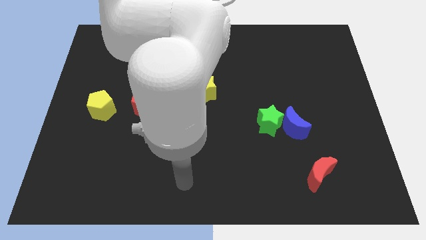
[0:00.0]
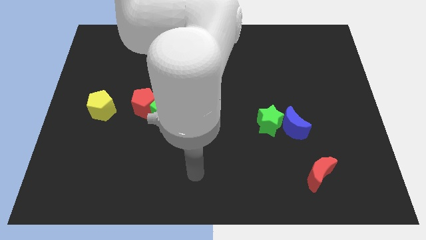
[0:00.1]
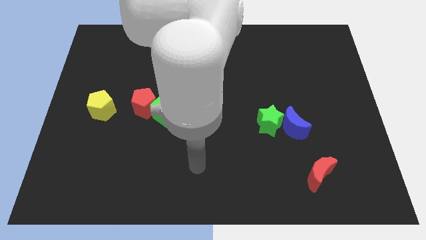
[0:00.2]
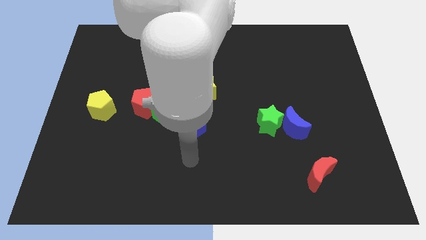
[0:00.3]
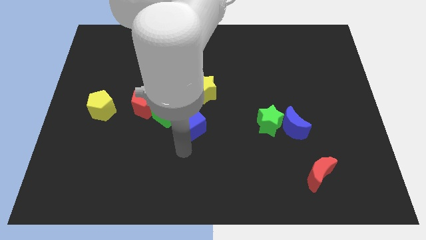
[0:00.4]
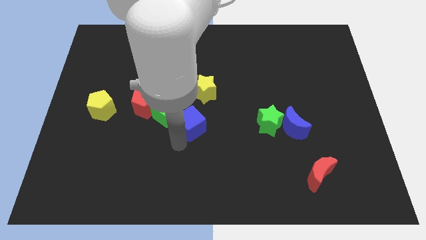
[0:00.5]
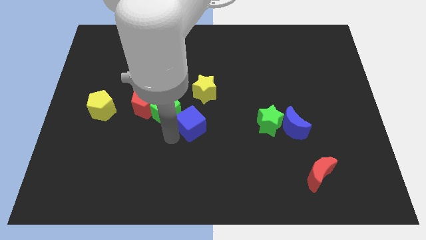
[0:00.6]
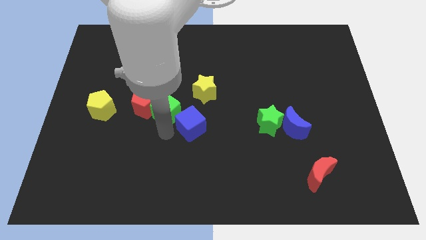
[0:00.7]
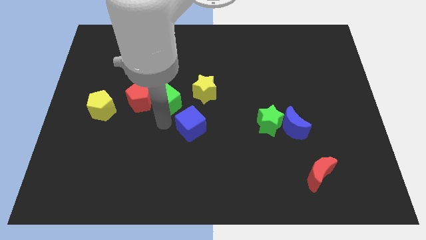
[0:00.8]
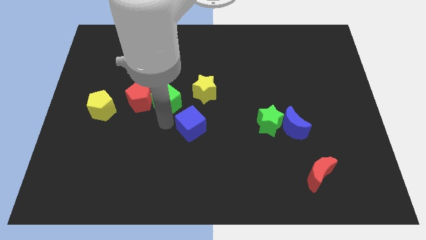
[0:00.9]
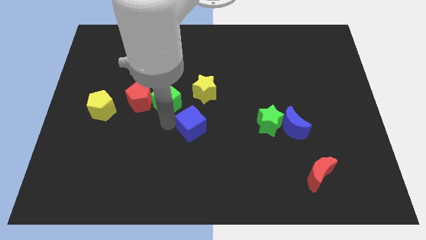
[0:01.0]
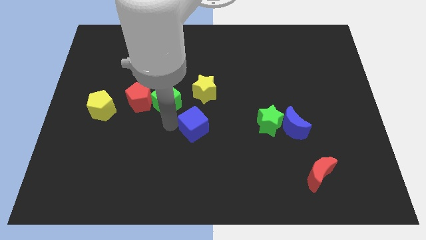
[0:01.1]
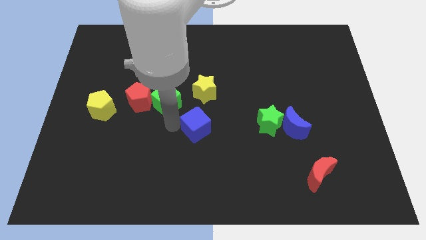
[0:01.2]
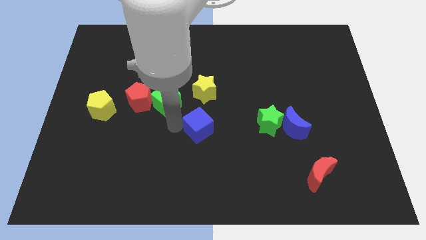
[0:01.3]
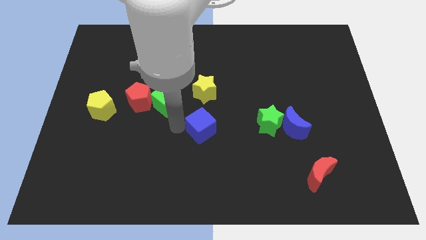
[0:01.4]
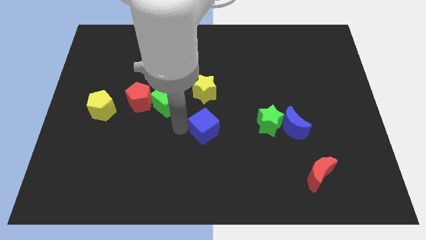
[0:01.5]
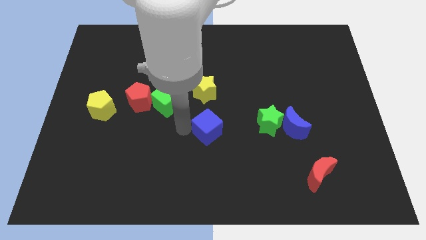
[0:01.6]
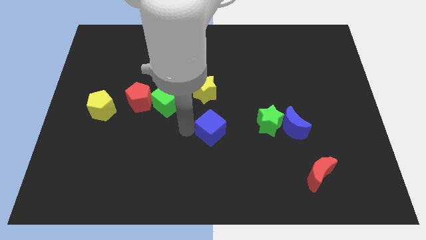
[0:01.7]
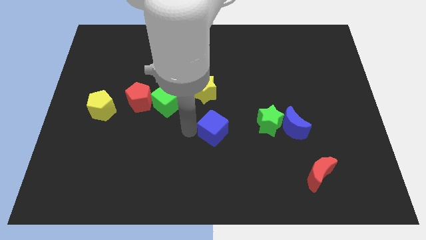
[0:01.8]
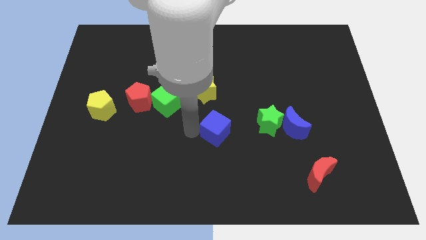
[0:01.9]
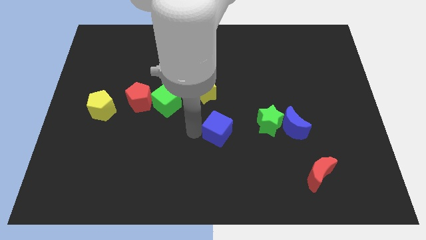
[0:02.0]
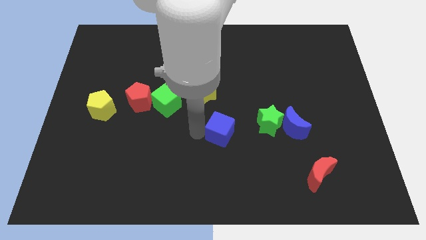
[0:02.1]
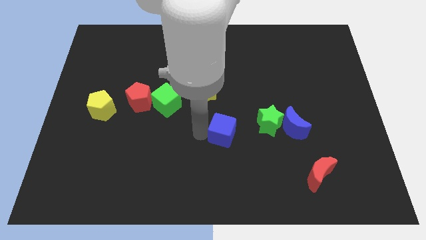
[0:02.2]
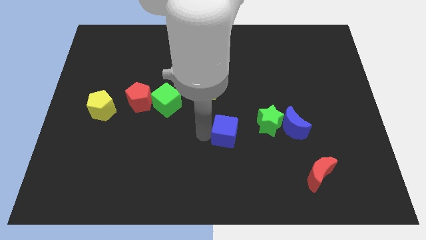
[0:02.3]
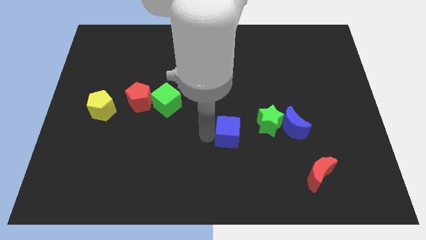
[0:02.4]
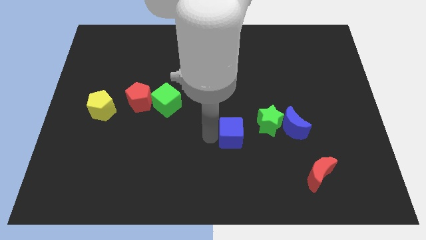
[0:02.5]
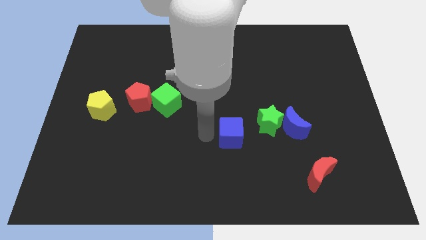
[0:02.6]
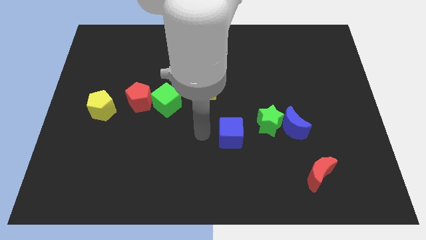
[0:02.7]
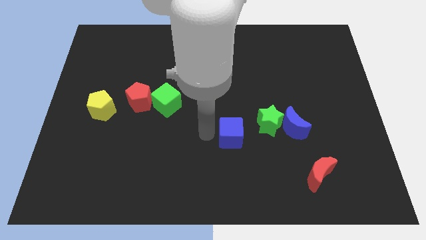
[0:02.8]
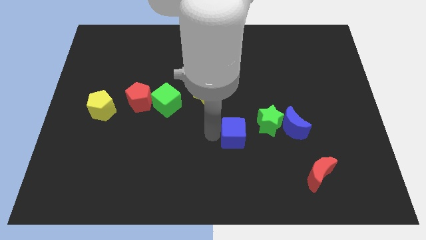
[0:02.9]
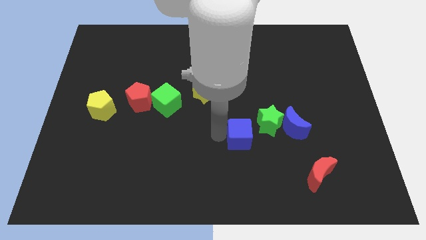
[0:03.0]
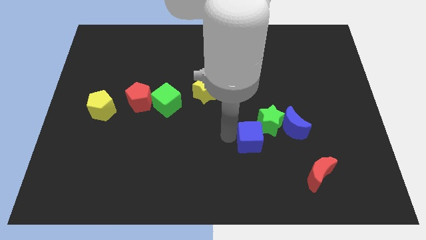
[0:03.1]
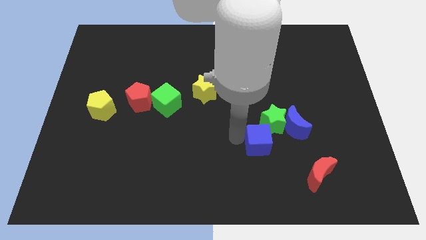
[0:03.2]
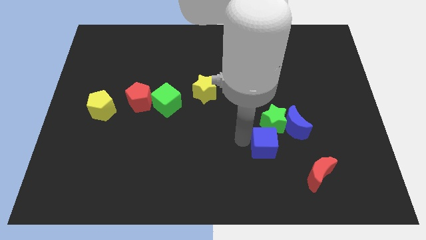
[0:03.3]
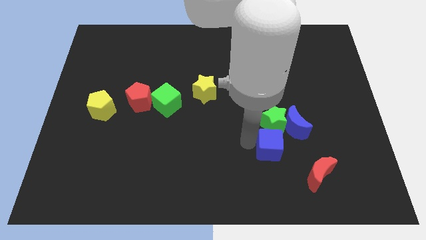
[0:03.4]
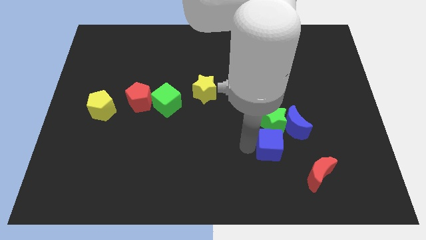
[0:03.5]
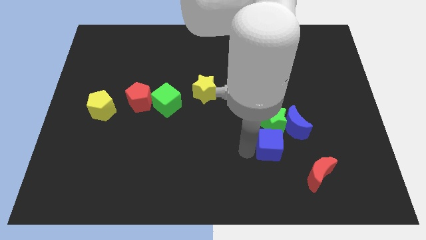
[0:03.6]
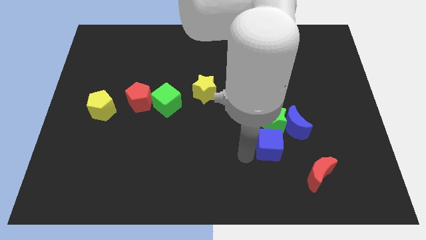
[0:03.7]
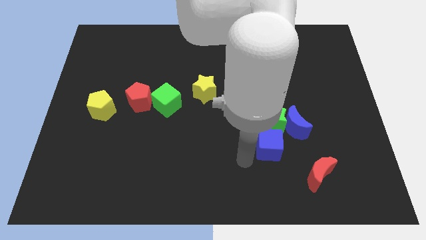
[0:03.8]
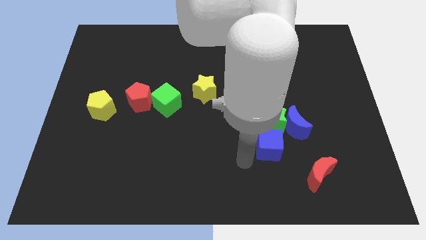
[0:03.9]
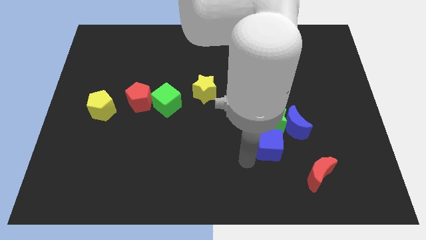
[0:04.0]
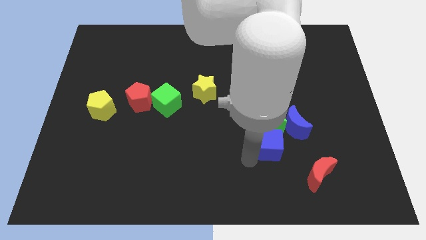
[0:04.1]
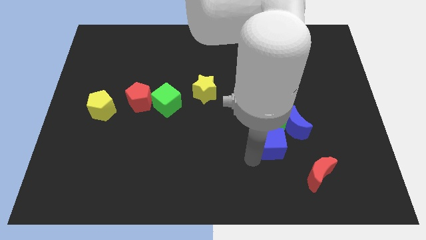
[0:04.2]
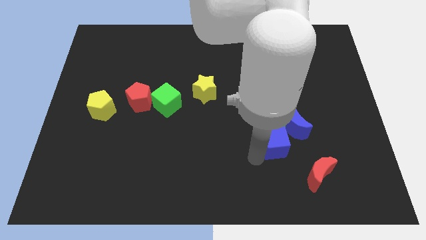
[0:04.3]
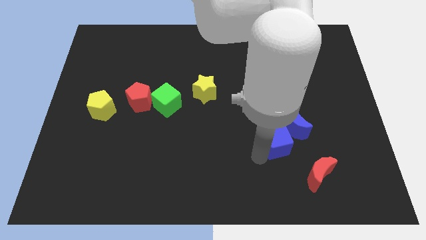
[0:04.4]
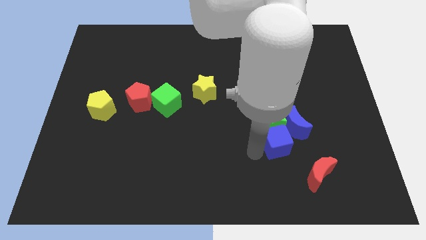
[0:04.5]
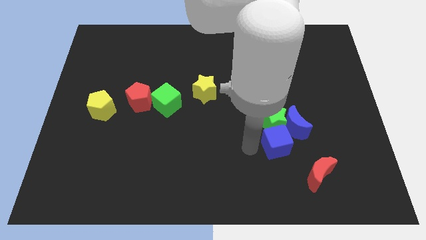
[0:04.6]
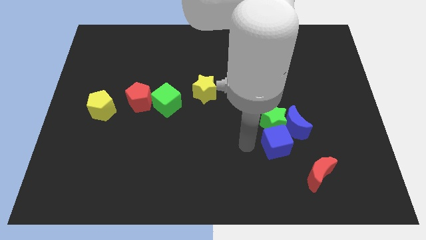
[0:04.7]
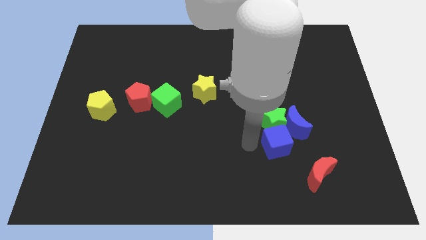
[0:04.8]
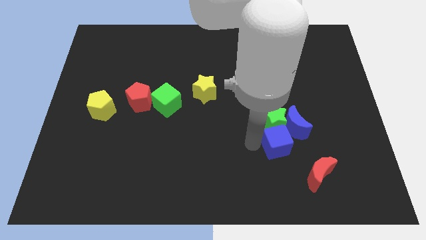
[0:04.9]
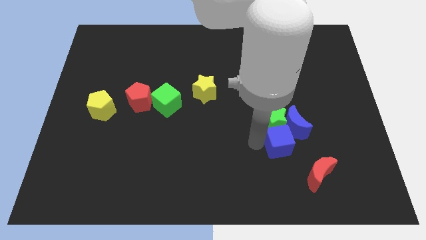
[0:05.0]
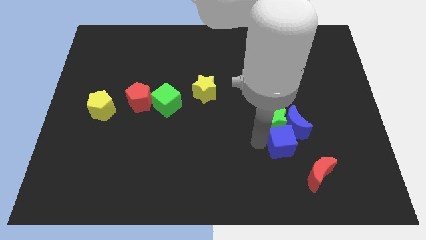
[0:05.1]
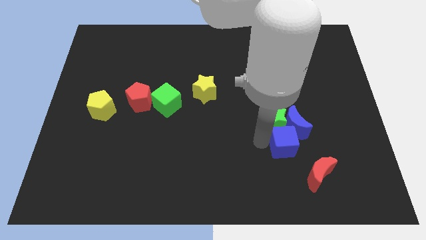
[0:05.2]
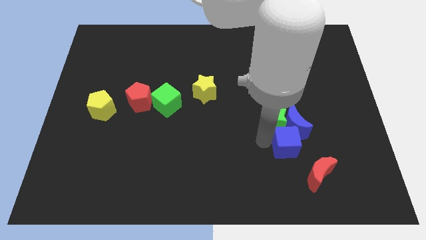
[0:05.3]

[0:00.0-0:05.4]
move the blue cube right

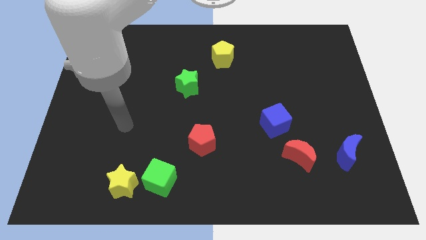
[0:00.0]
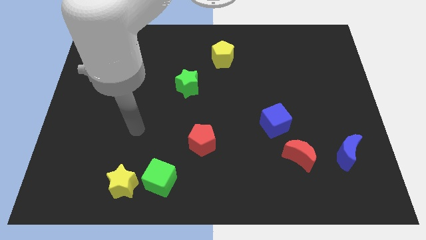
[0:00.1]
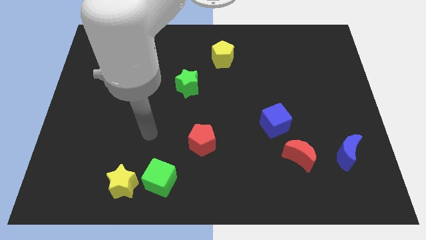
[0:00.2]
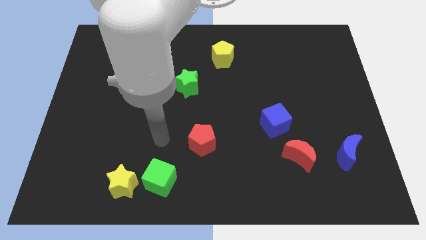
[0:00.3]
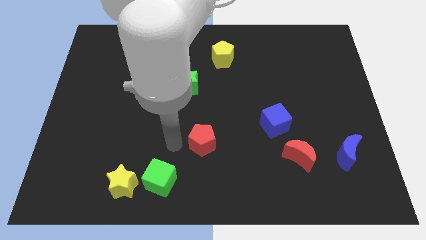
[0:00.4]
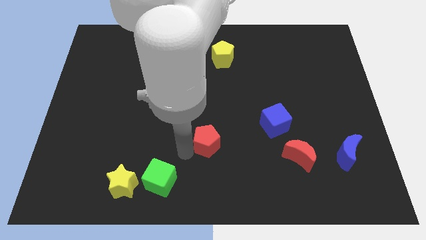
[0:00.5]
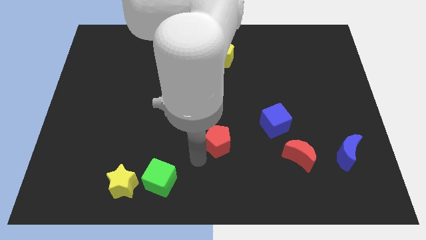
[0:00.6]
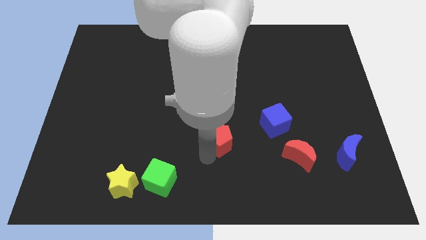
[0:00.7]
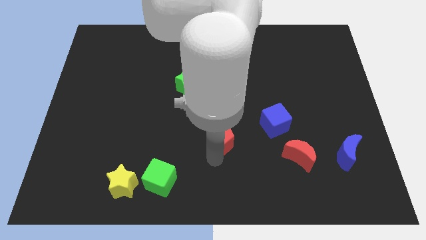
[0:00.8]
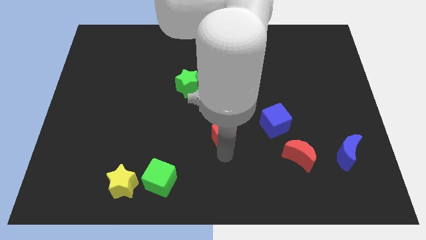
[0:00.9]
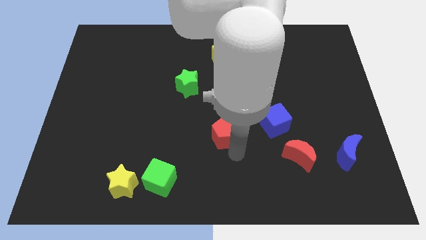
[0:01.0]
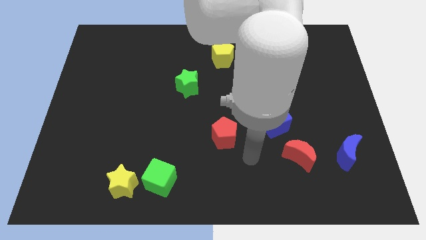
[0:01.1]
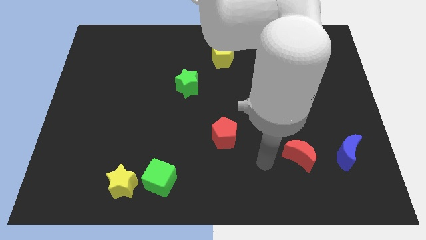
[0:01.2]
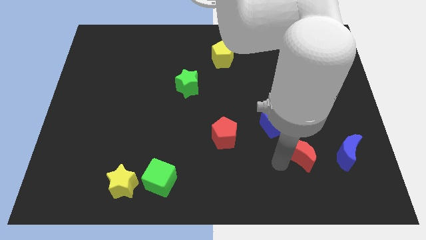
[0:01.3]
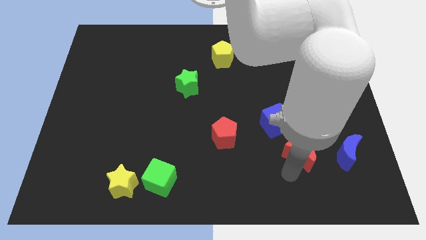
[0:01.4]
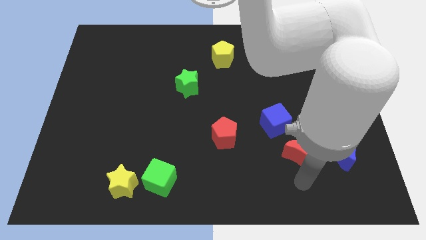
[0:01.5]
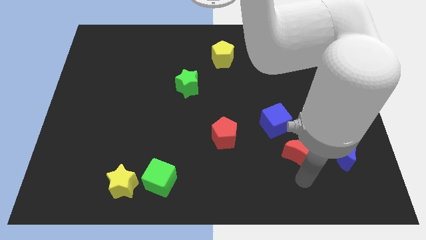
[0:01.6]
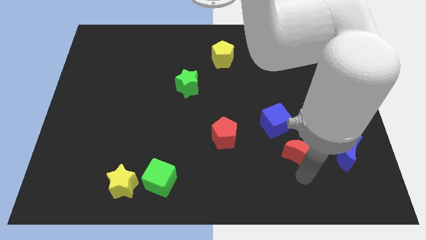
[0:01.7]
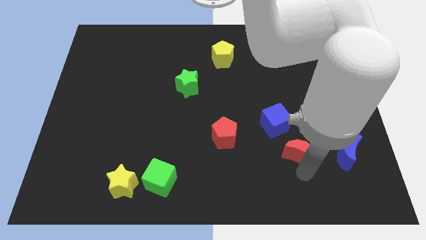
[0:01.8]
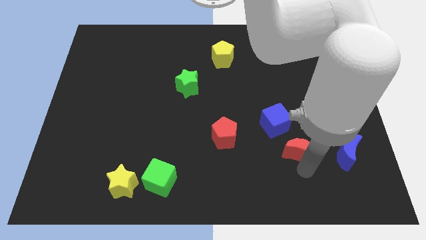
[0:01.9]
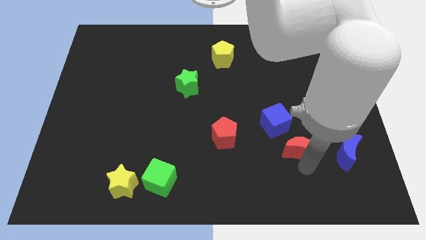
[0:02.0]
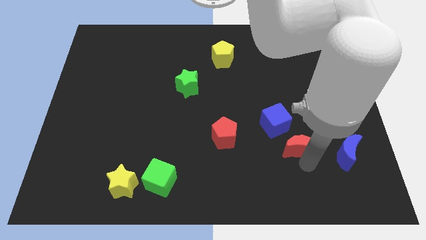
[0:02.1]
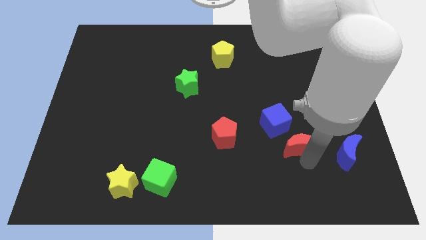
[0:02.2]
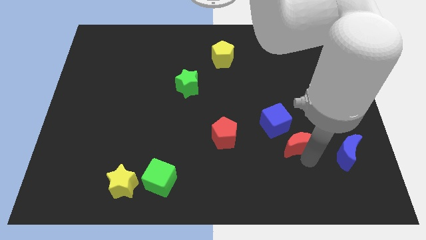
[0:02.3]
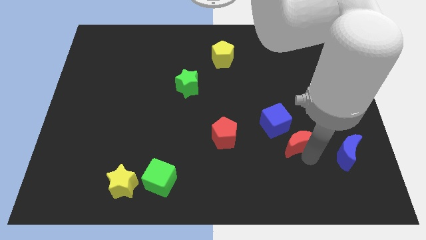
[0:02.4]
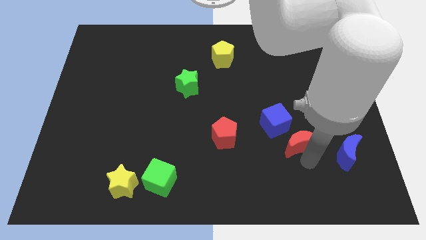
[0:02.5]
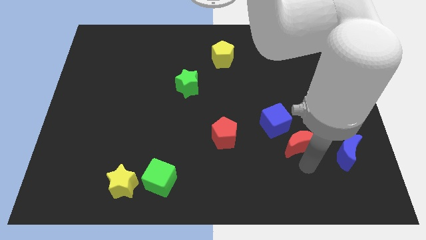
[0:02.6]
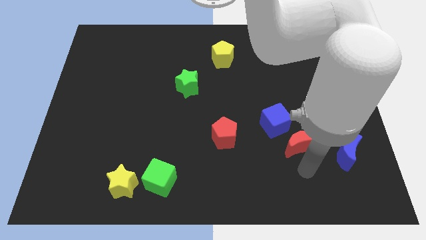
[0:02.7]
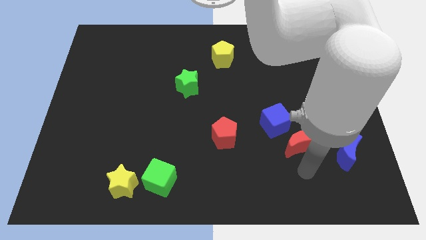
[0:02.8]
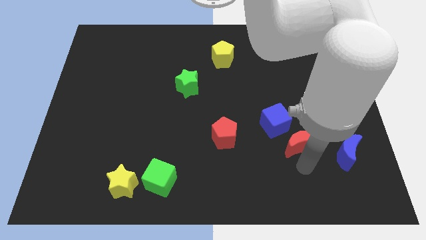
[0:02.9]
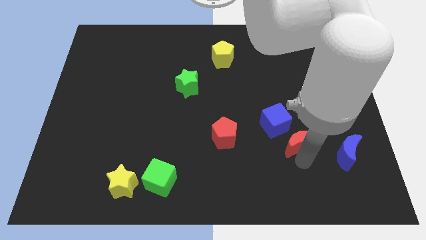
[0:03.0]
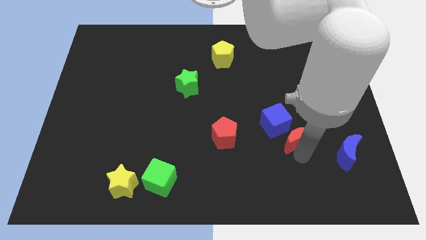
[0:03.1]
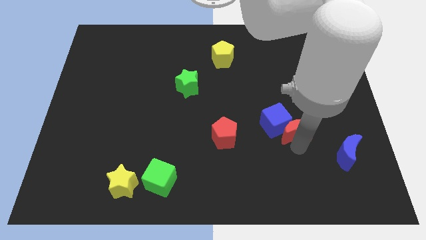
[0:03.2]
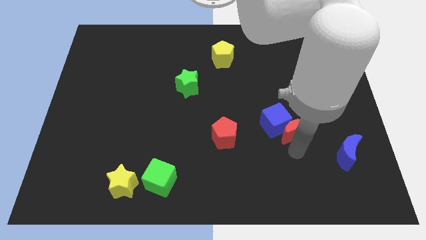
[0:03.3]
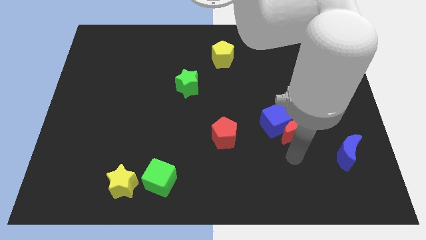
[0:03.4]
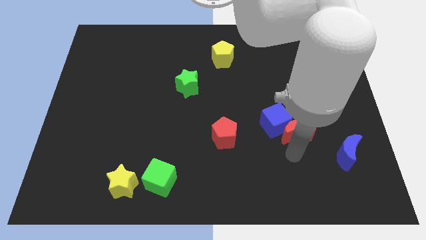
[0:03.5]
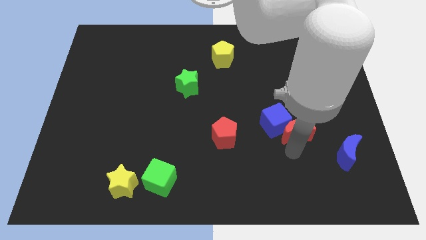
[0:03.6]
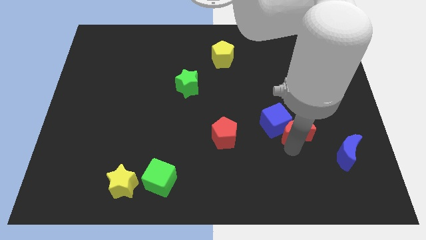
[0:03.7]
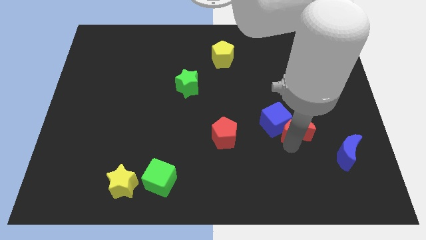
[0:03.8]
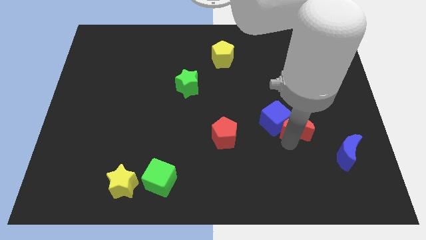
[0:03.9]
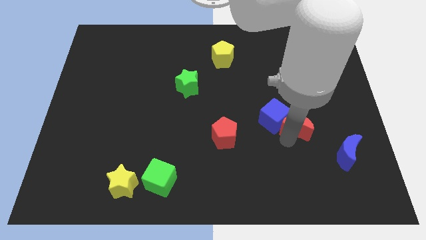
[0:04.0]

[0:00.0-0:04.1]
move the red moon up somewhat
